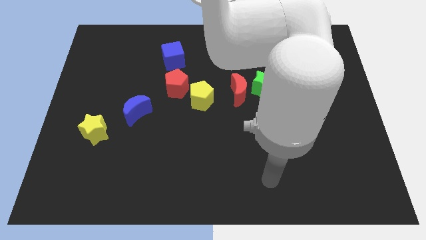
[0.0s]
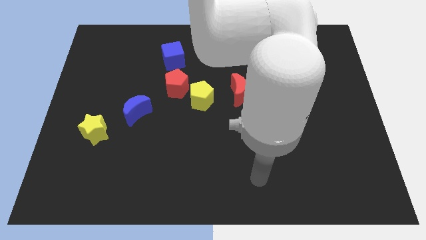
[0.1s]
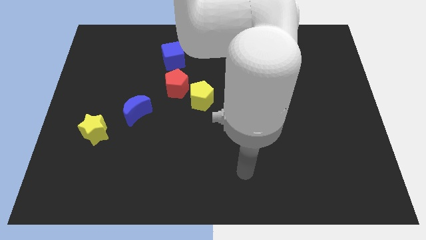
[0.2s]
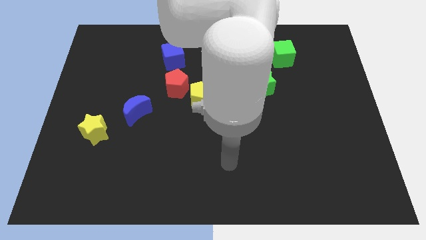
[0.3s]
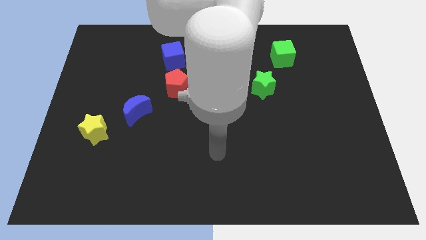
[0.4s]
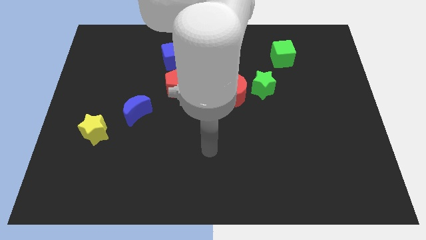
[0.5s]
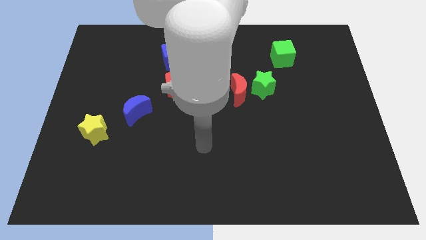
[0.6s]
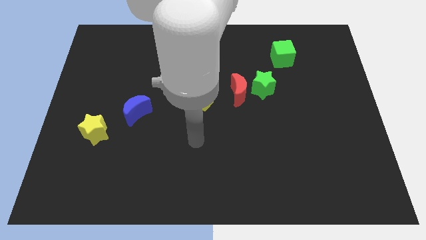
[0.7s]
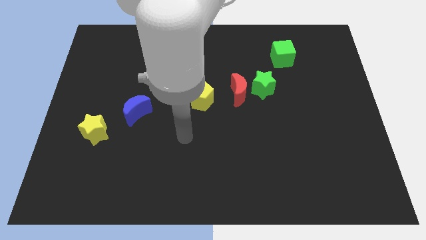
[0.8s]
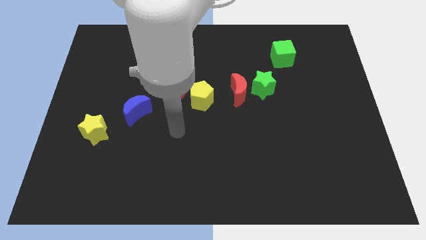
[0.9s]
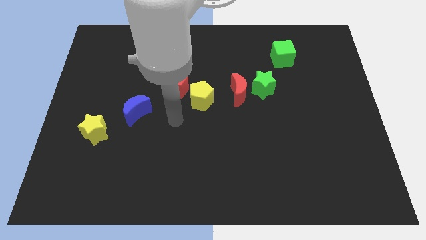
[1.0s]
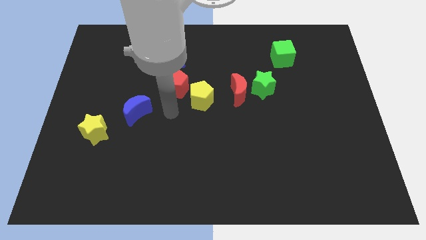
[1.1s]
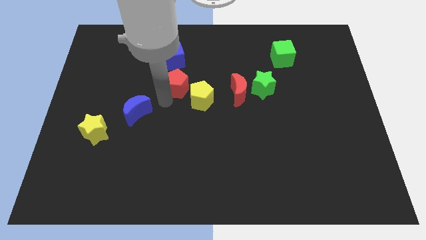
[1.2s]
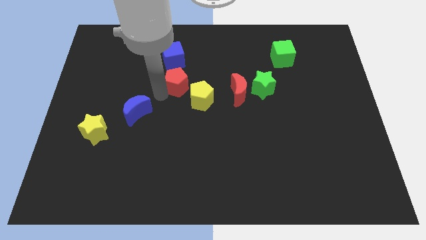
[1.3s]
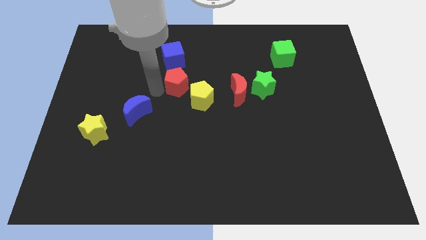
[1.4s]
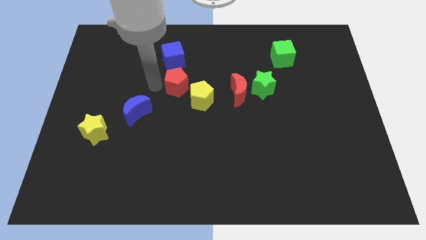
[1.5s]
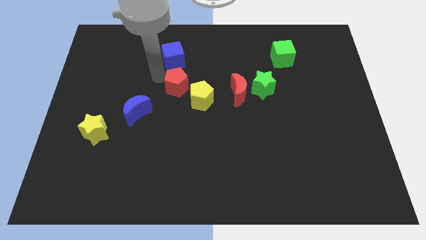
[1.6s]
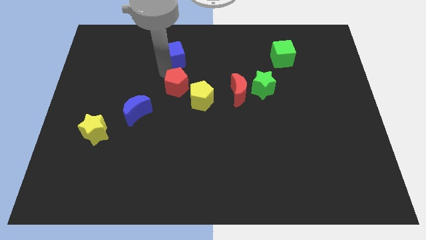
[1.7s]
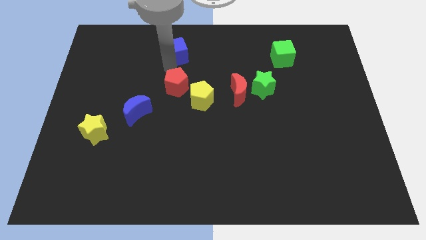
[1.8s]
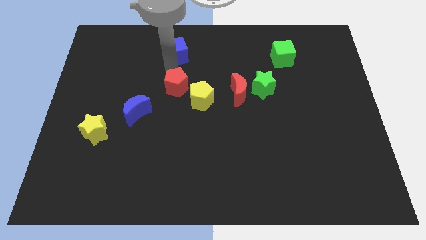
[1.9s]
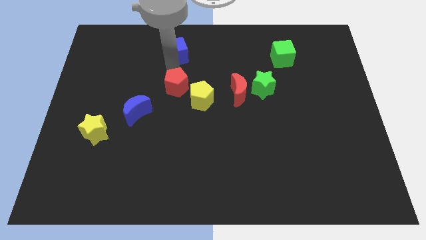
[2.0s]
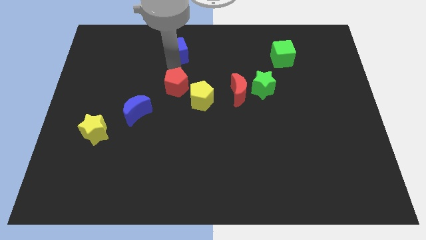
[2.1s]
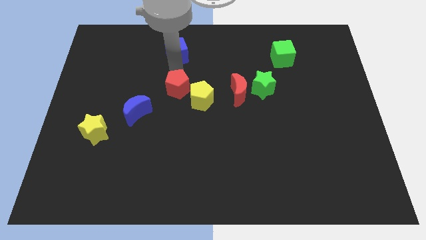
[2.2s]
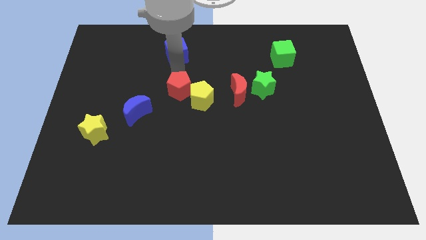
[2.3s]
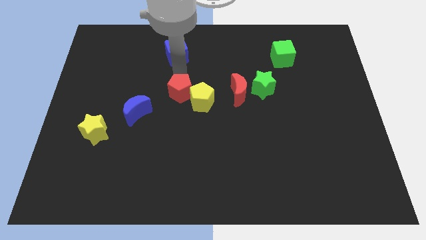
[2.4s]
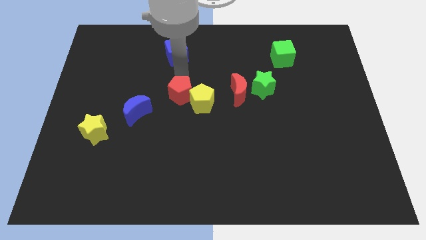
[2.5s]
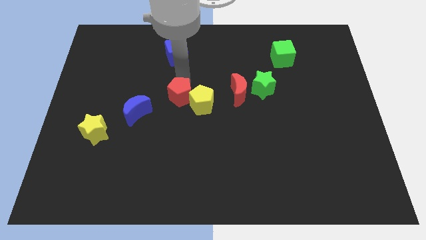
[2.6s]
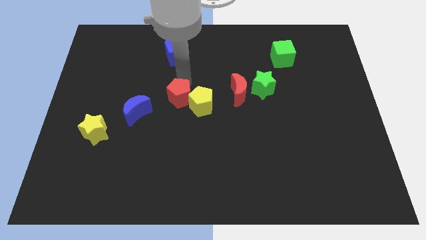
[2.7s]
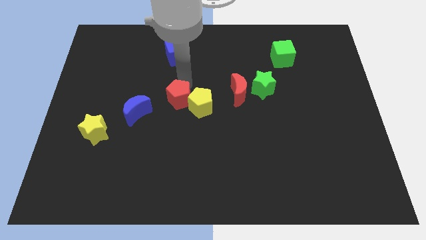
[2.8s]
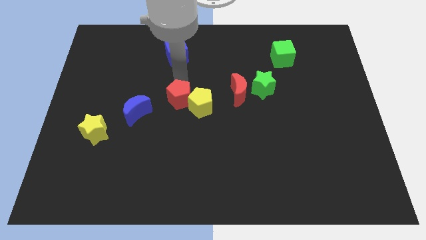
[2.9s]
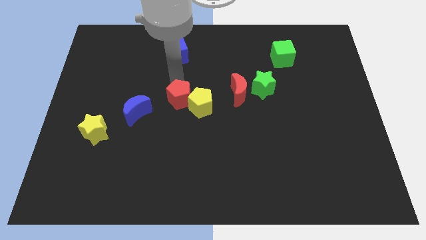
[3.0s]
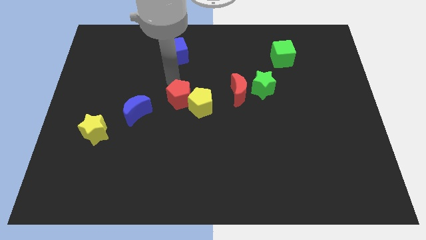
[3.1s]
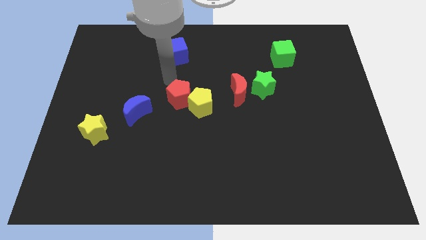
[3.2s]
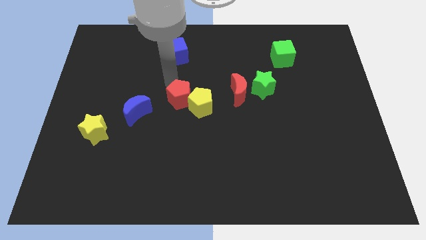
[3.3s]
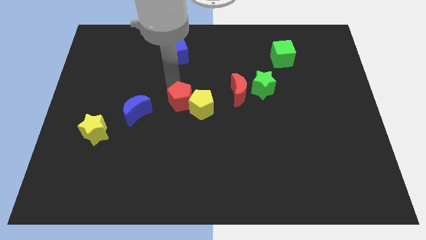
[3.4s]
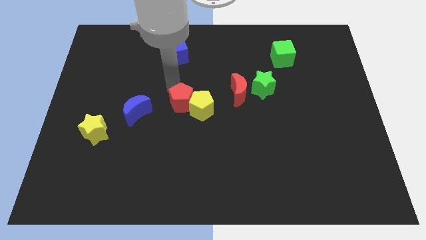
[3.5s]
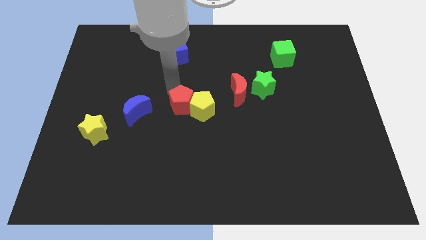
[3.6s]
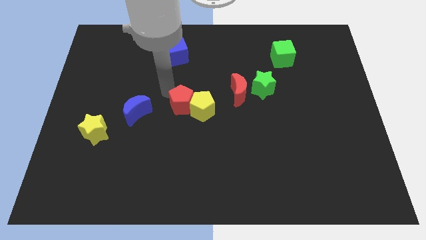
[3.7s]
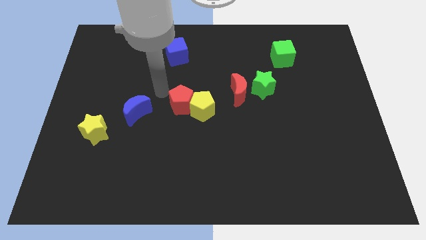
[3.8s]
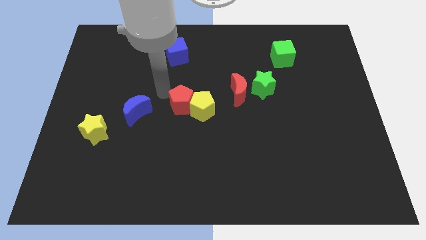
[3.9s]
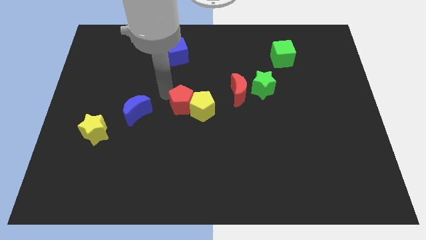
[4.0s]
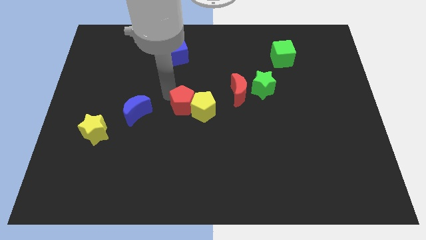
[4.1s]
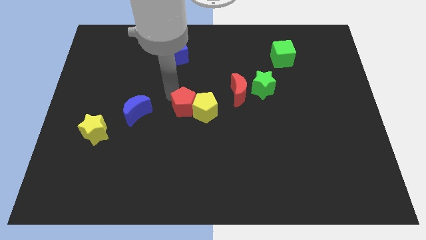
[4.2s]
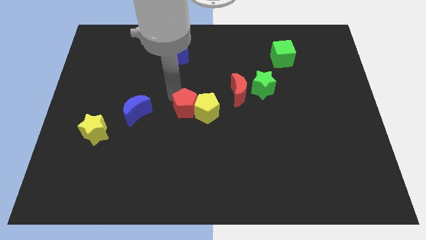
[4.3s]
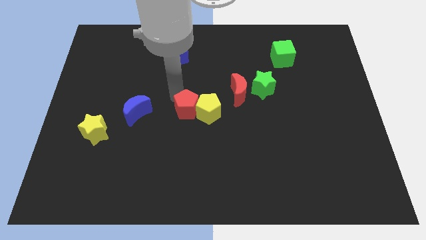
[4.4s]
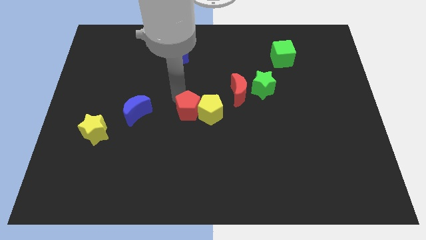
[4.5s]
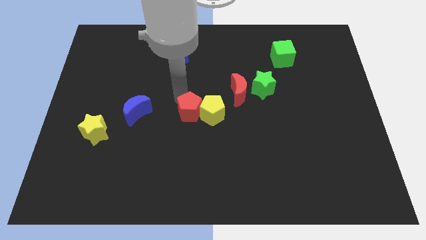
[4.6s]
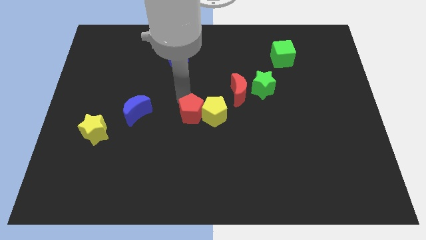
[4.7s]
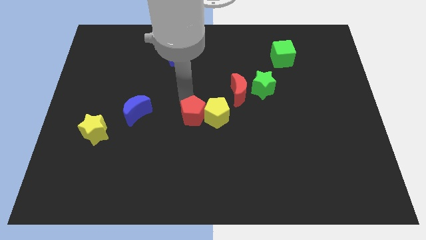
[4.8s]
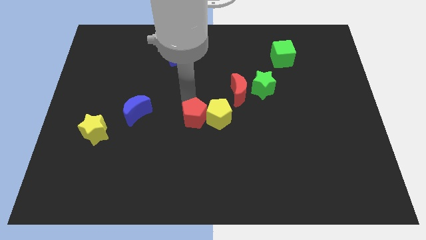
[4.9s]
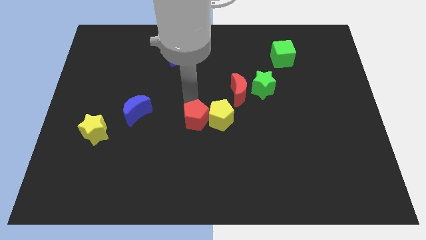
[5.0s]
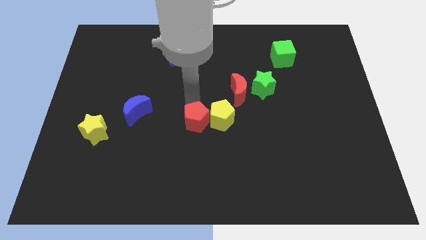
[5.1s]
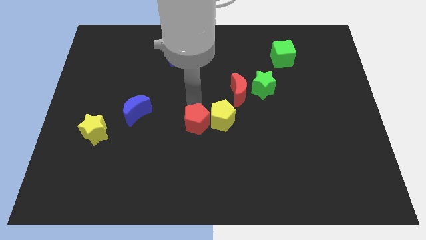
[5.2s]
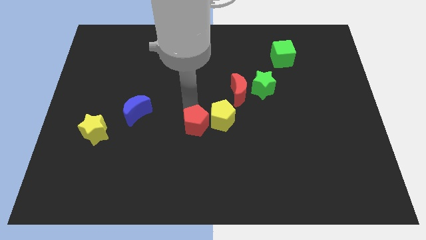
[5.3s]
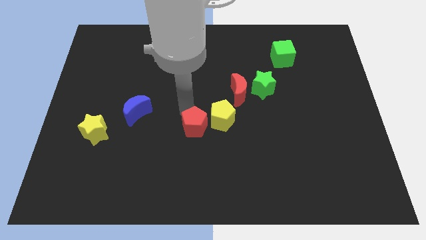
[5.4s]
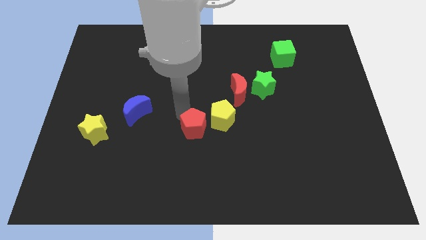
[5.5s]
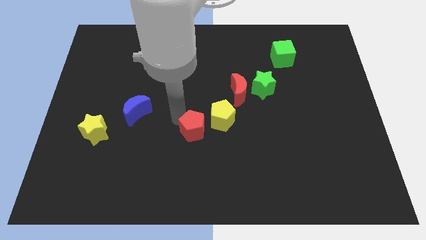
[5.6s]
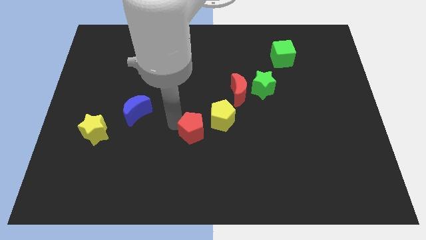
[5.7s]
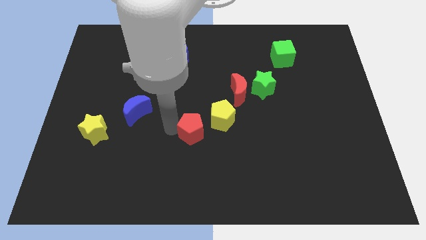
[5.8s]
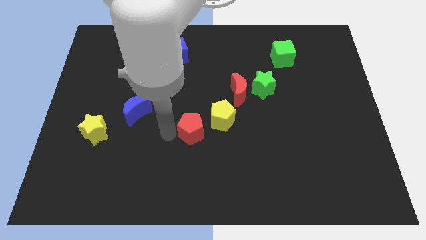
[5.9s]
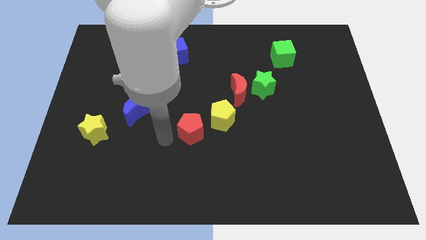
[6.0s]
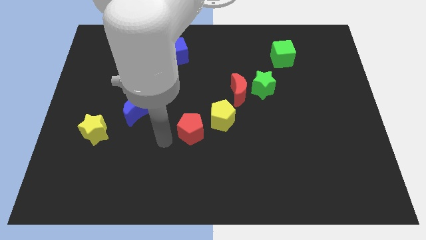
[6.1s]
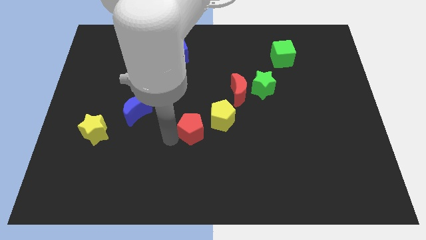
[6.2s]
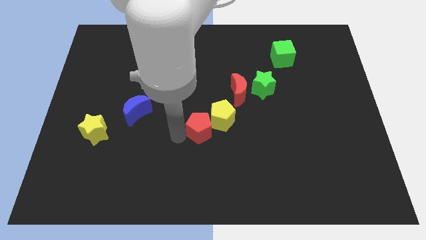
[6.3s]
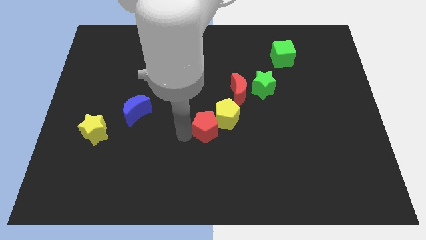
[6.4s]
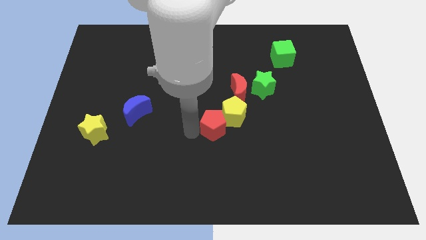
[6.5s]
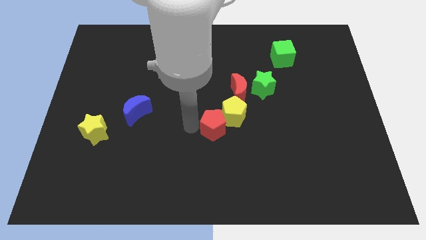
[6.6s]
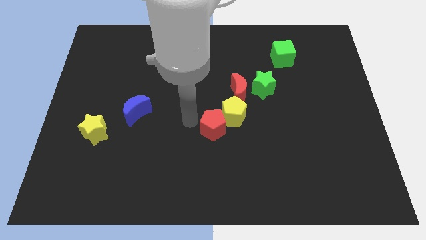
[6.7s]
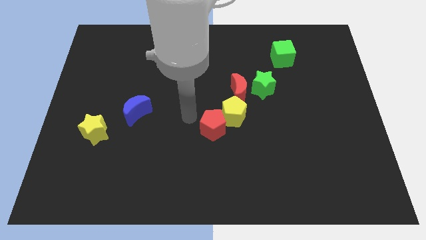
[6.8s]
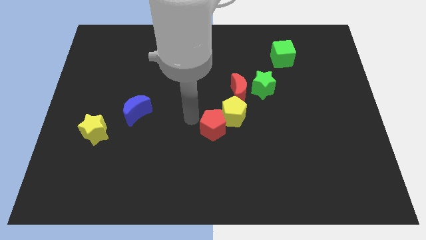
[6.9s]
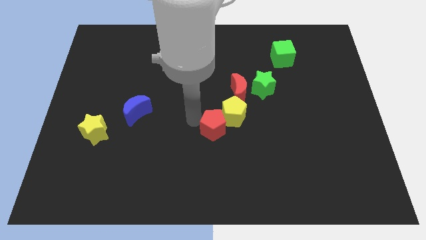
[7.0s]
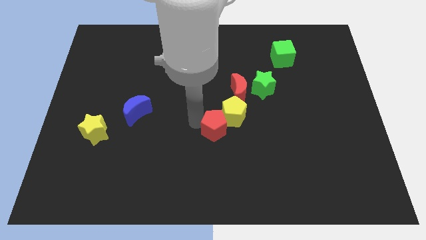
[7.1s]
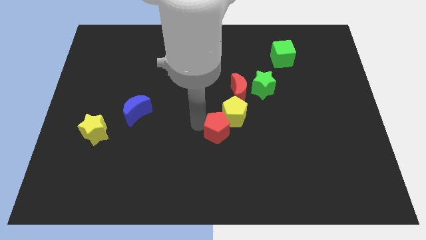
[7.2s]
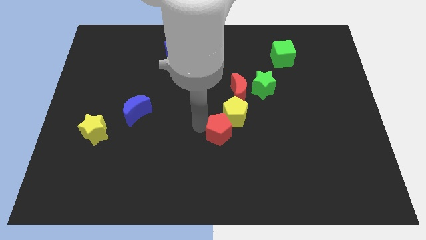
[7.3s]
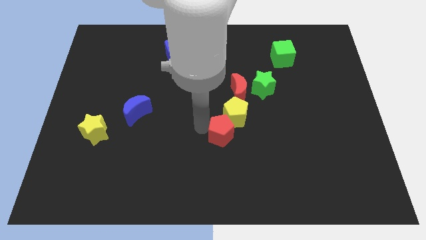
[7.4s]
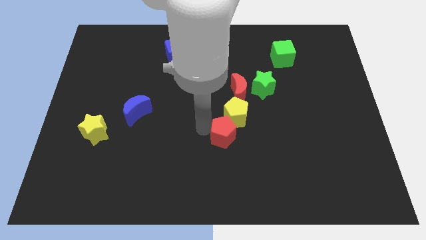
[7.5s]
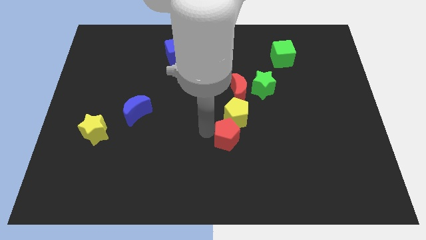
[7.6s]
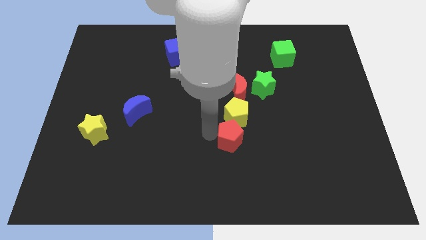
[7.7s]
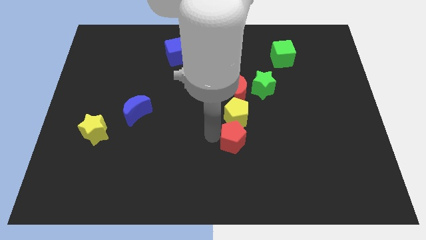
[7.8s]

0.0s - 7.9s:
slide the red pentagon diagonally down and right
